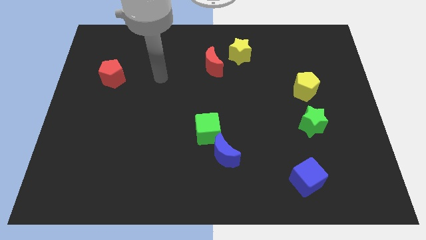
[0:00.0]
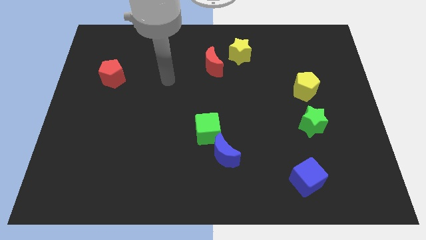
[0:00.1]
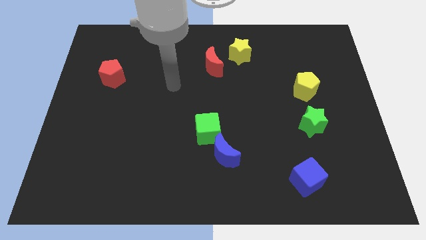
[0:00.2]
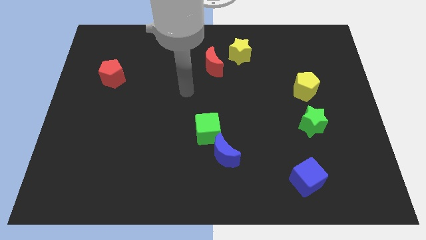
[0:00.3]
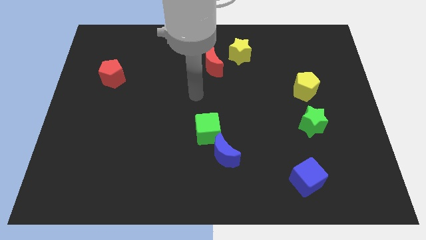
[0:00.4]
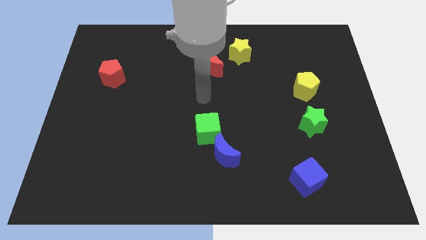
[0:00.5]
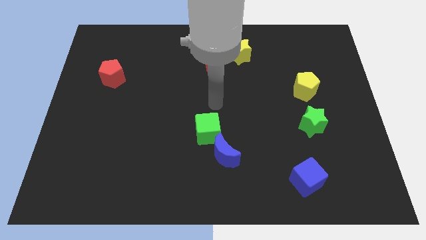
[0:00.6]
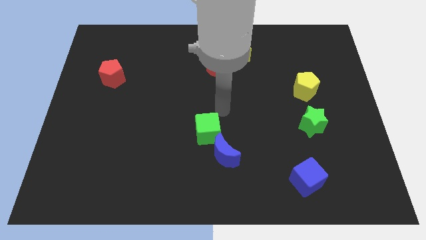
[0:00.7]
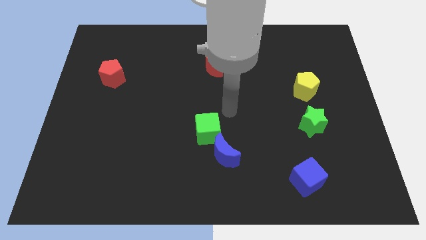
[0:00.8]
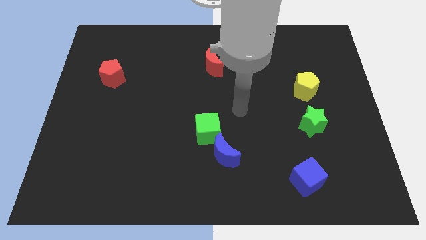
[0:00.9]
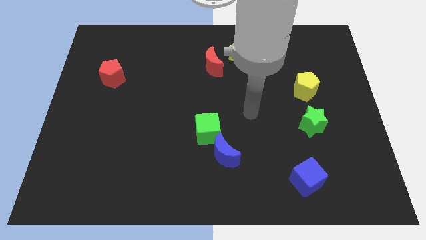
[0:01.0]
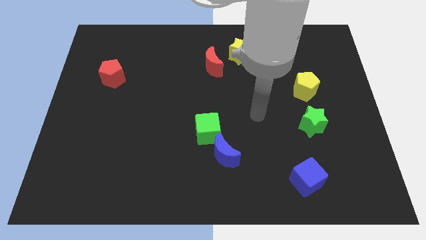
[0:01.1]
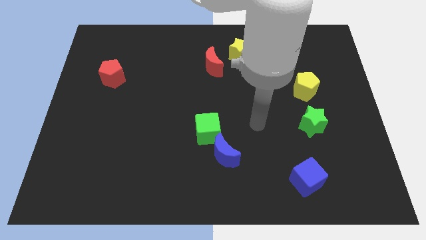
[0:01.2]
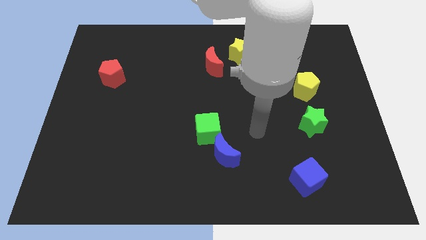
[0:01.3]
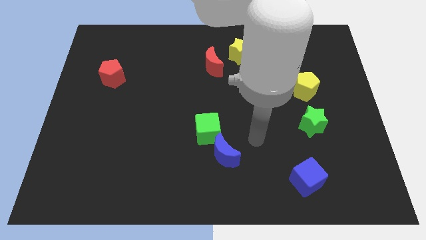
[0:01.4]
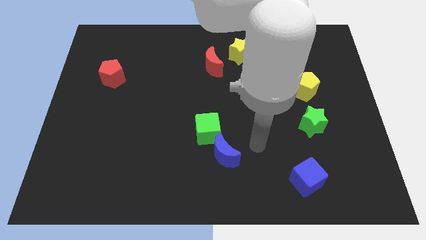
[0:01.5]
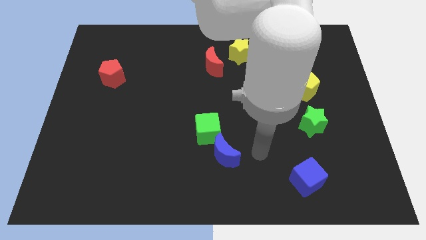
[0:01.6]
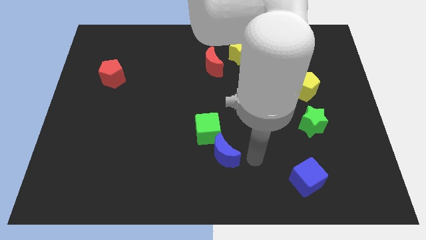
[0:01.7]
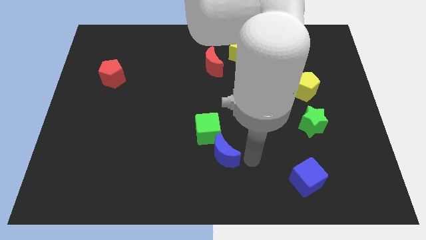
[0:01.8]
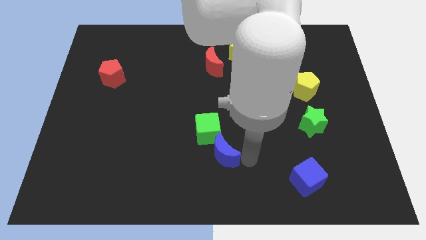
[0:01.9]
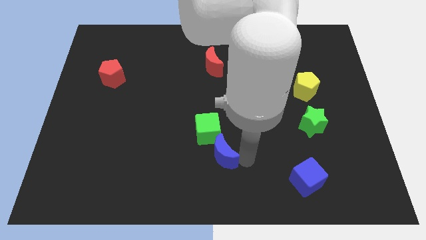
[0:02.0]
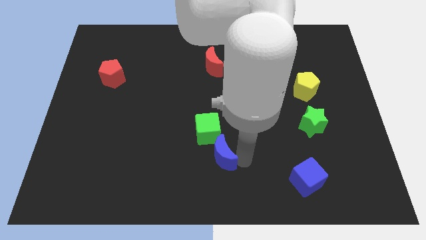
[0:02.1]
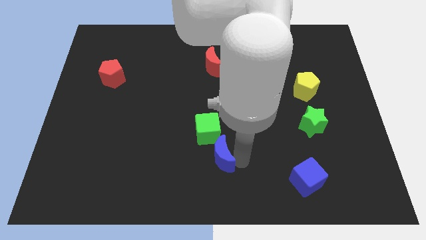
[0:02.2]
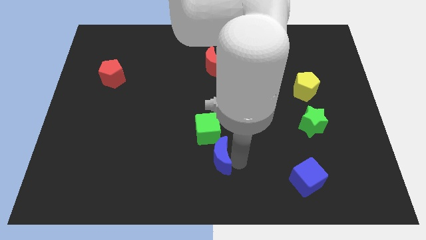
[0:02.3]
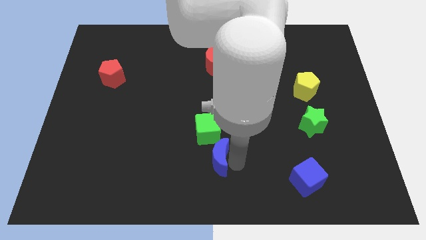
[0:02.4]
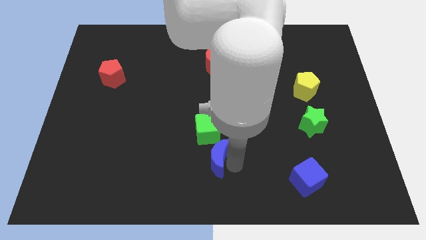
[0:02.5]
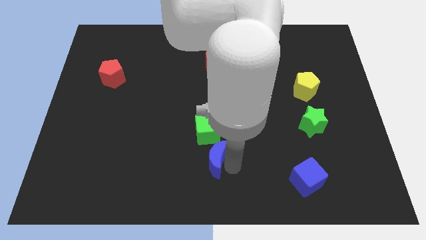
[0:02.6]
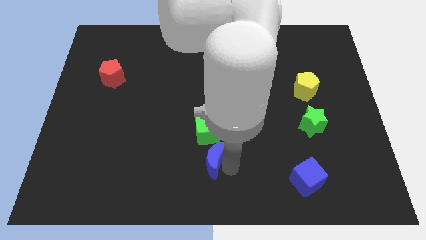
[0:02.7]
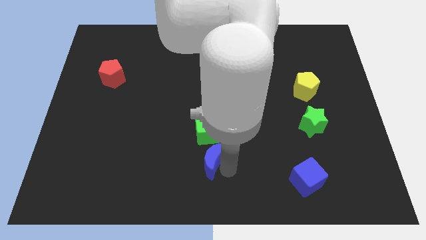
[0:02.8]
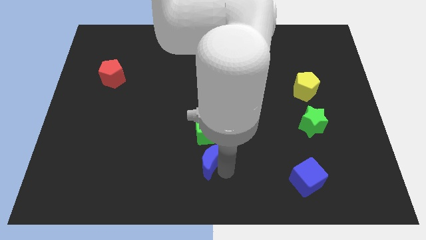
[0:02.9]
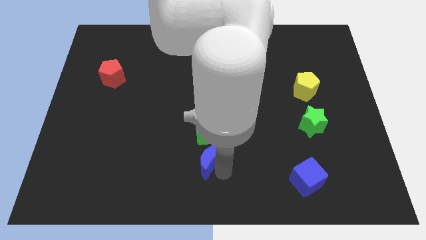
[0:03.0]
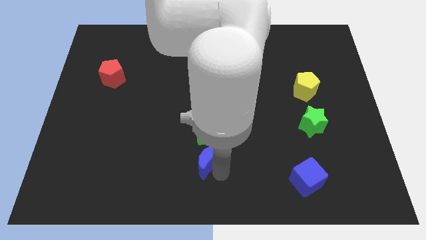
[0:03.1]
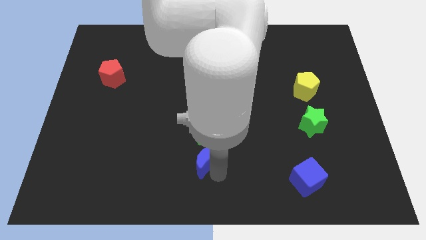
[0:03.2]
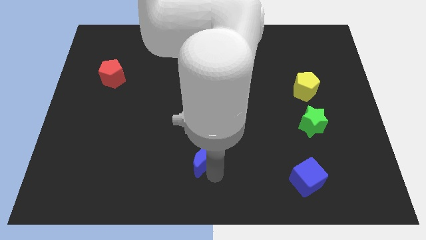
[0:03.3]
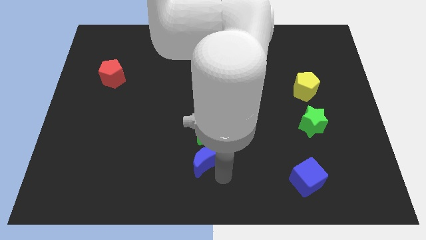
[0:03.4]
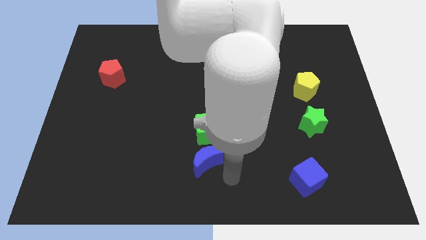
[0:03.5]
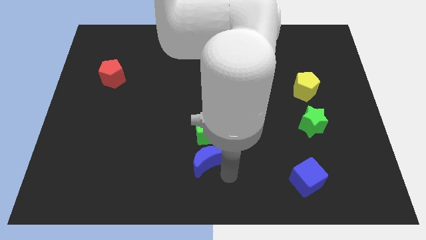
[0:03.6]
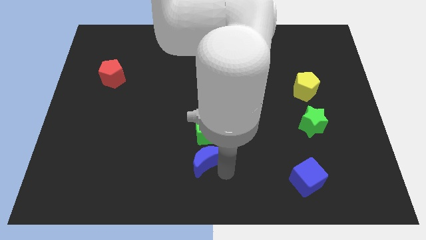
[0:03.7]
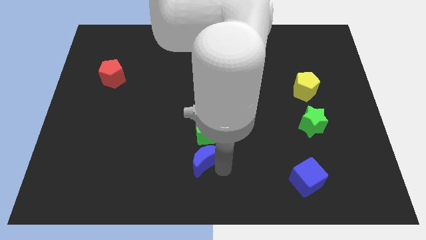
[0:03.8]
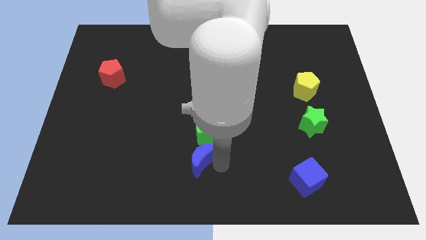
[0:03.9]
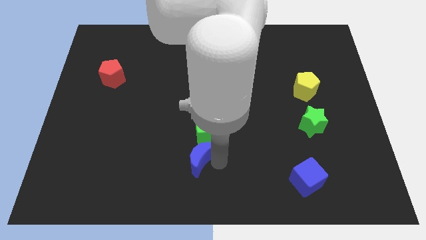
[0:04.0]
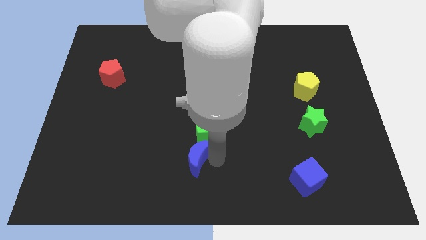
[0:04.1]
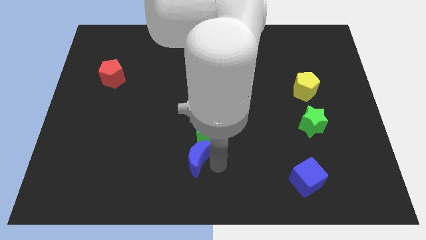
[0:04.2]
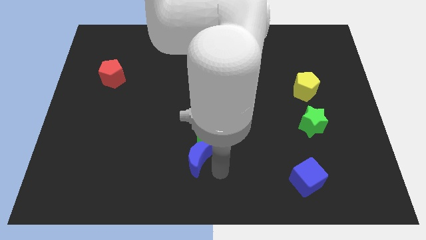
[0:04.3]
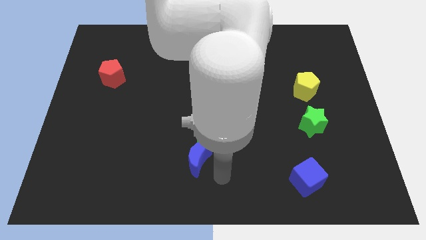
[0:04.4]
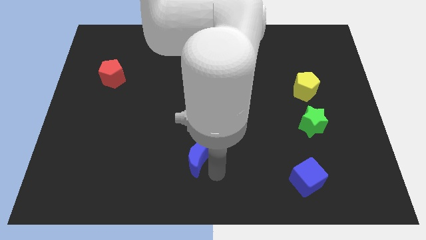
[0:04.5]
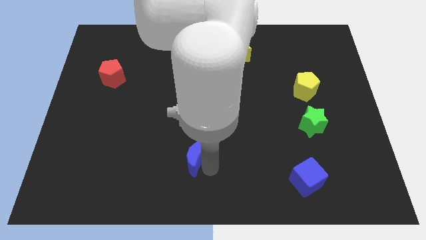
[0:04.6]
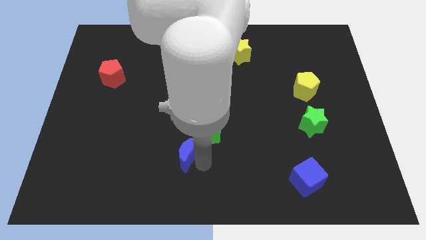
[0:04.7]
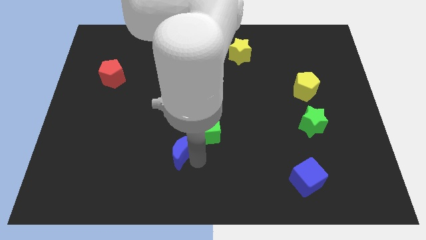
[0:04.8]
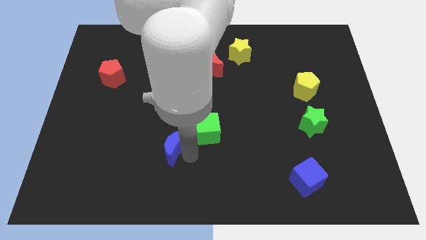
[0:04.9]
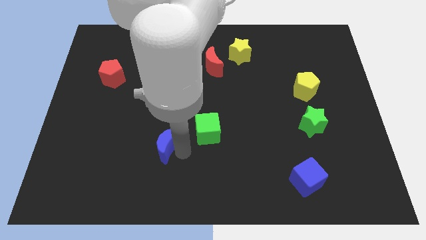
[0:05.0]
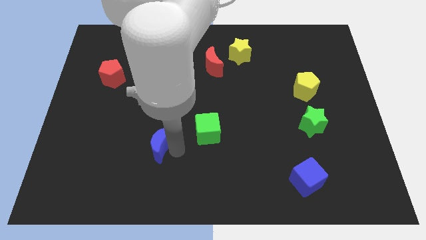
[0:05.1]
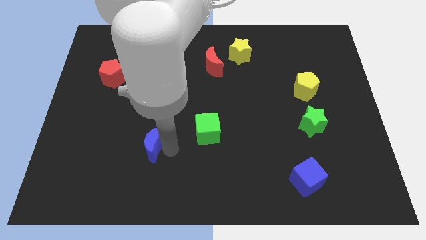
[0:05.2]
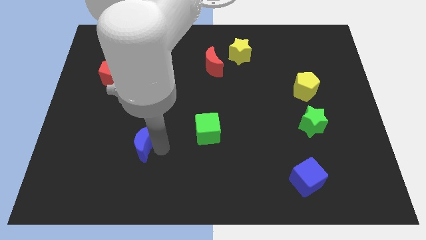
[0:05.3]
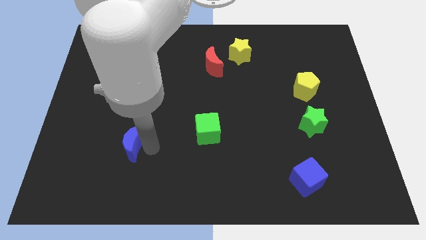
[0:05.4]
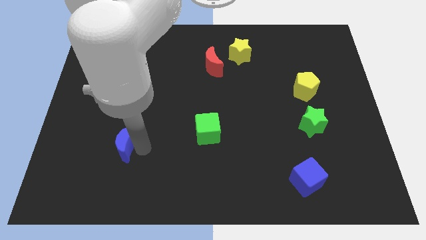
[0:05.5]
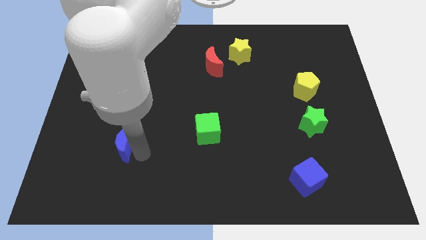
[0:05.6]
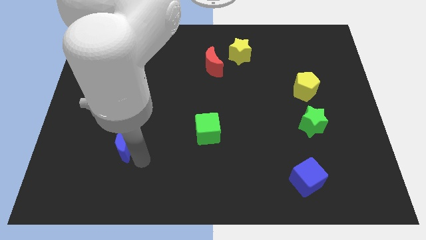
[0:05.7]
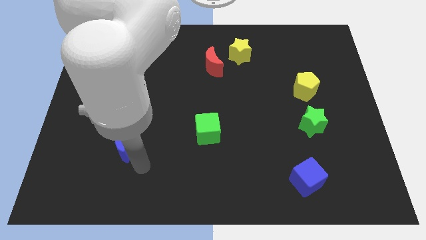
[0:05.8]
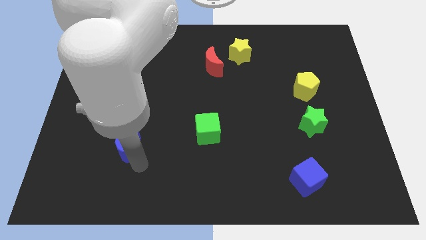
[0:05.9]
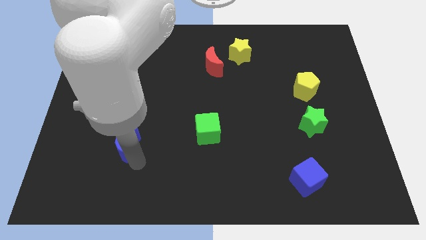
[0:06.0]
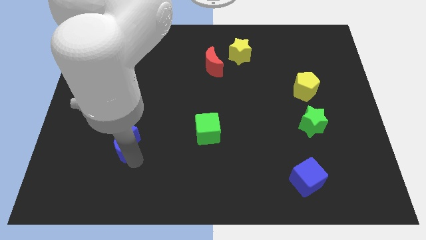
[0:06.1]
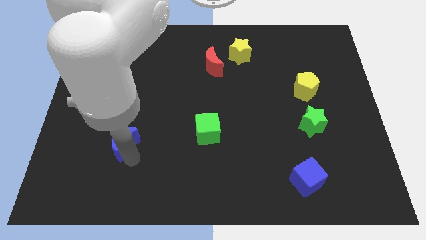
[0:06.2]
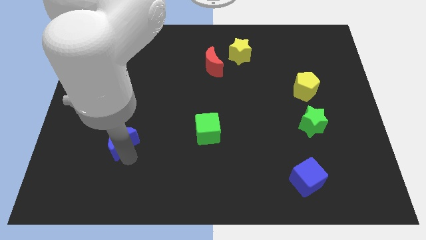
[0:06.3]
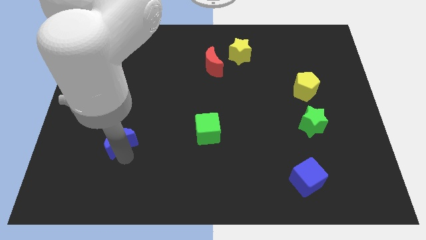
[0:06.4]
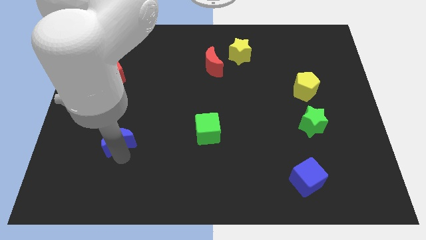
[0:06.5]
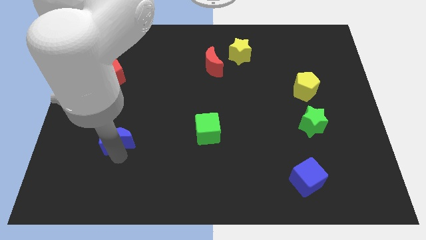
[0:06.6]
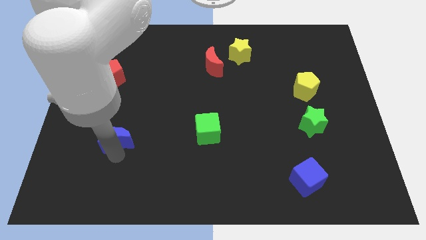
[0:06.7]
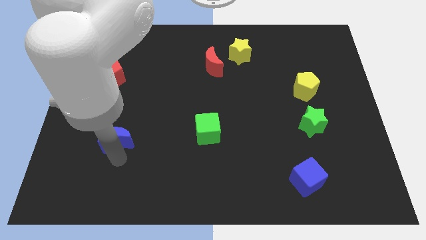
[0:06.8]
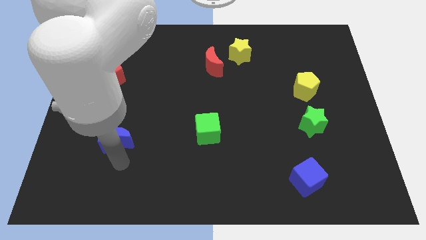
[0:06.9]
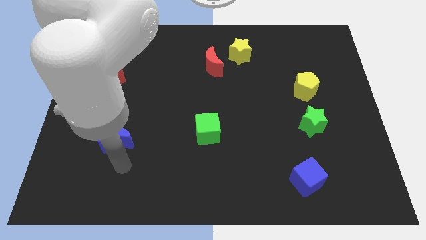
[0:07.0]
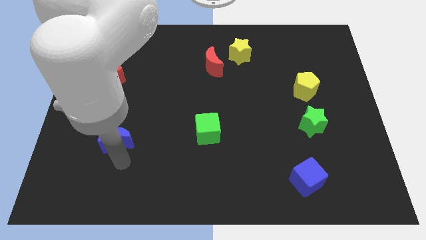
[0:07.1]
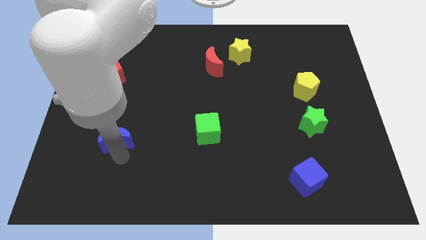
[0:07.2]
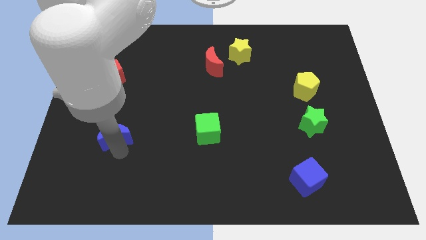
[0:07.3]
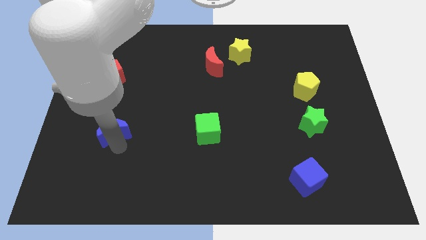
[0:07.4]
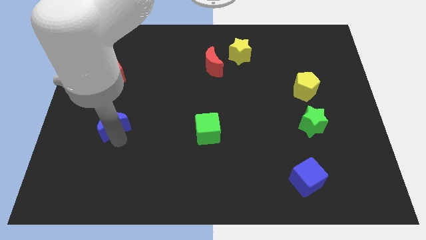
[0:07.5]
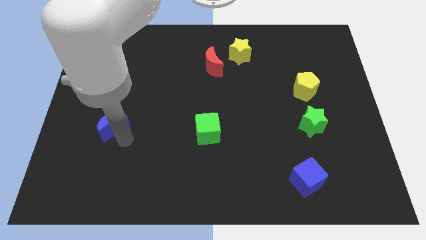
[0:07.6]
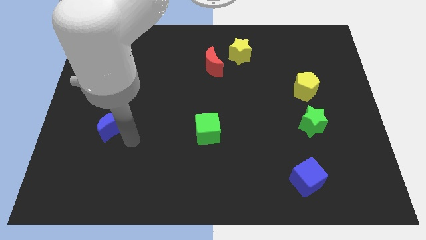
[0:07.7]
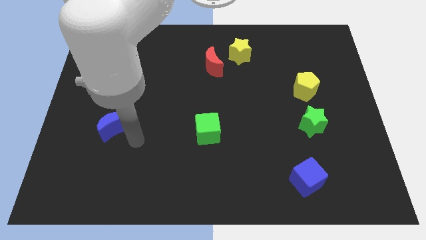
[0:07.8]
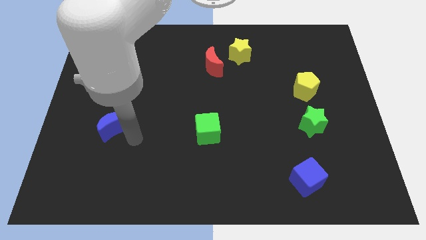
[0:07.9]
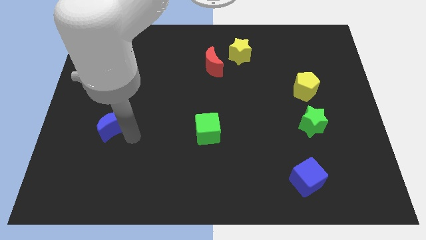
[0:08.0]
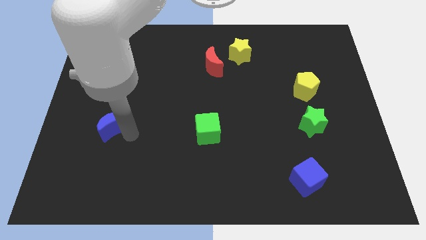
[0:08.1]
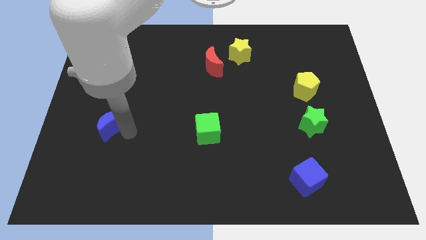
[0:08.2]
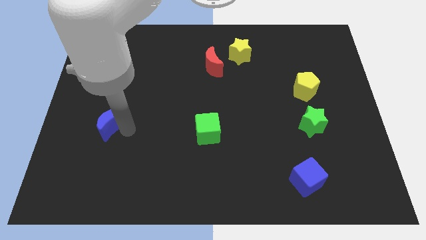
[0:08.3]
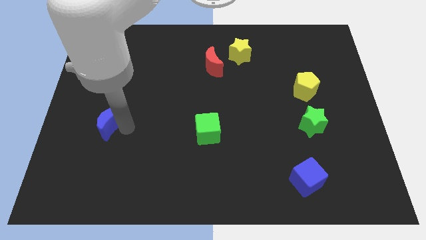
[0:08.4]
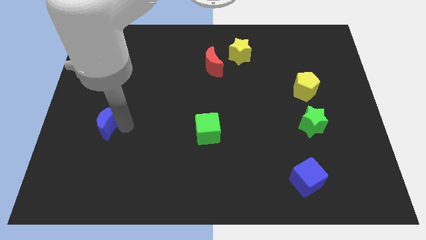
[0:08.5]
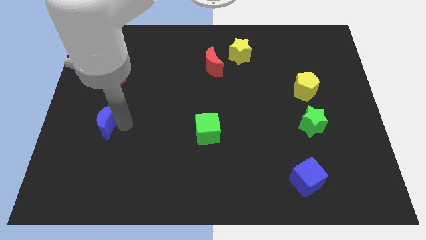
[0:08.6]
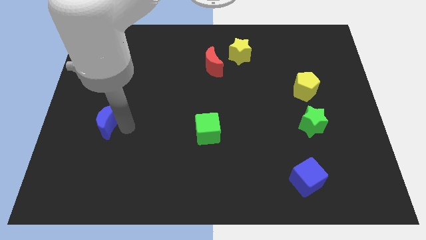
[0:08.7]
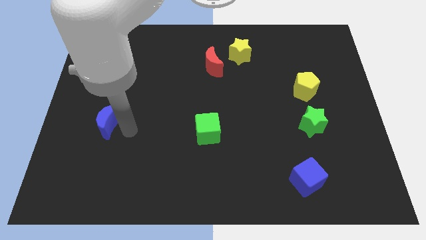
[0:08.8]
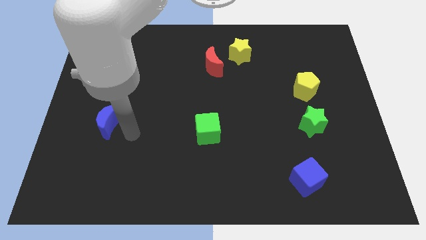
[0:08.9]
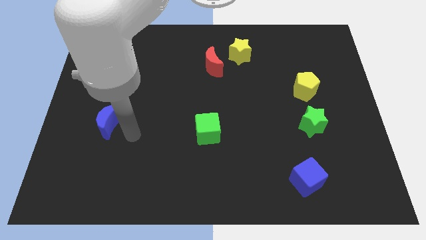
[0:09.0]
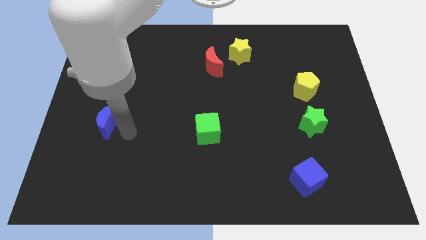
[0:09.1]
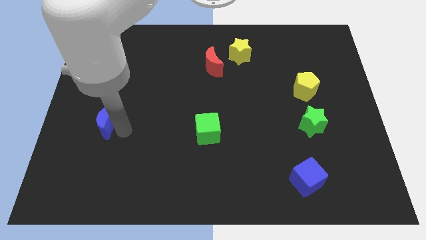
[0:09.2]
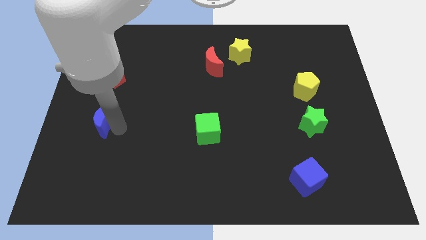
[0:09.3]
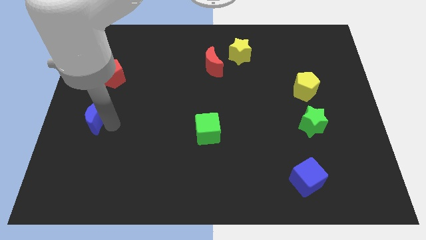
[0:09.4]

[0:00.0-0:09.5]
push the blue moon to the left side
